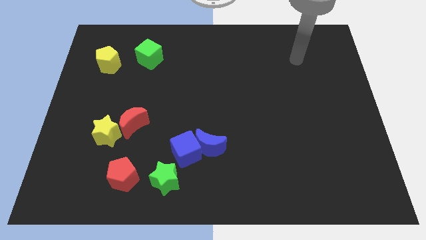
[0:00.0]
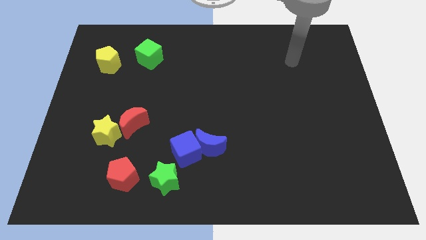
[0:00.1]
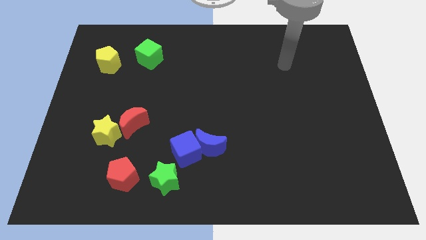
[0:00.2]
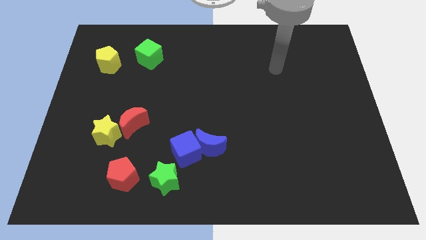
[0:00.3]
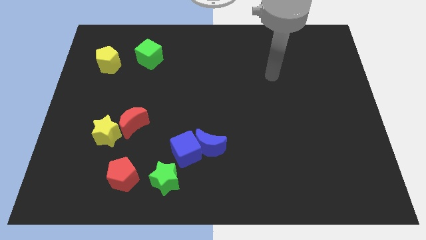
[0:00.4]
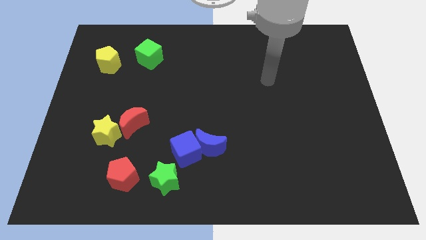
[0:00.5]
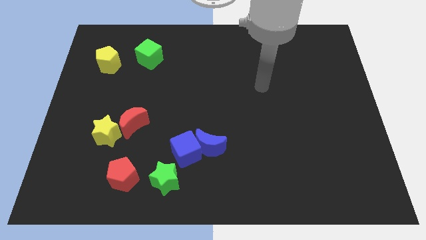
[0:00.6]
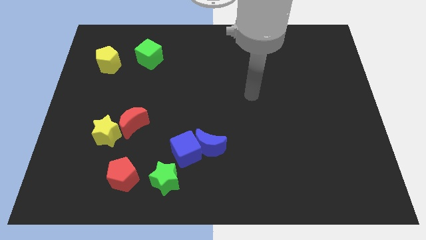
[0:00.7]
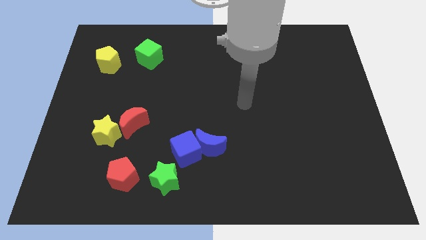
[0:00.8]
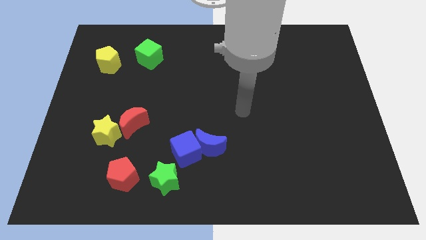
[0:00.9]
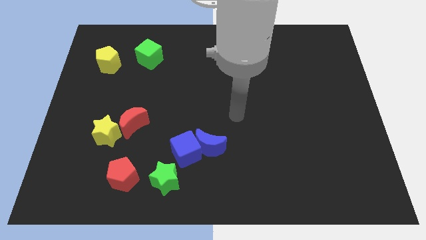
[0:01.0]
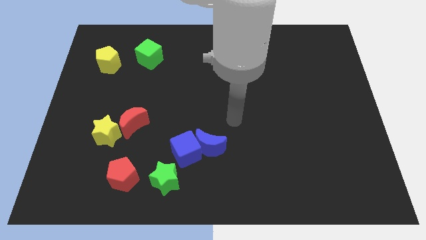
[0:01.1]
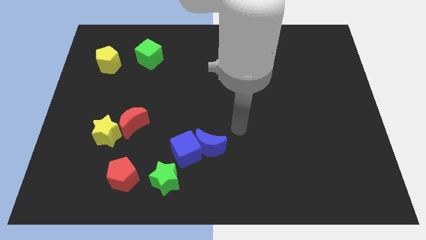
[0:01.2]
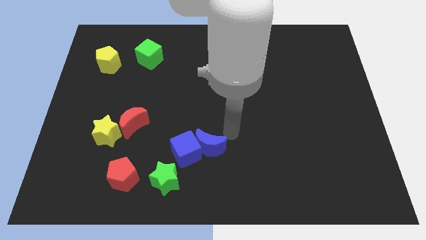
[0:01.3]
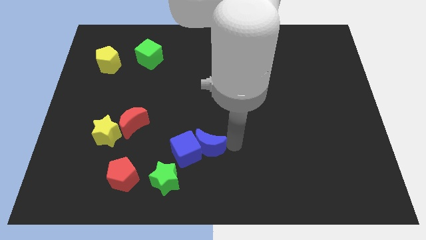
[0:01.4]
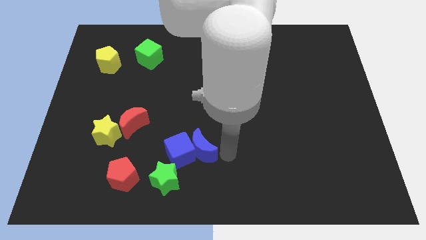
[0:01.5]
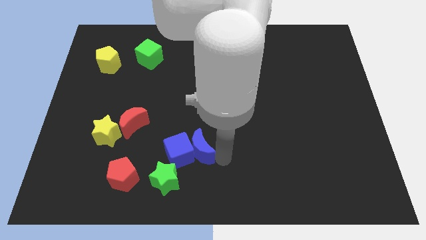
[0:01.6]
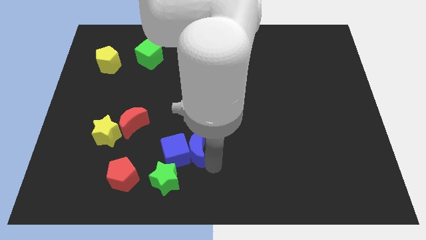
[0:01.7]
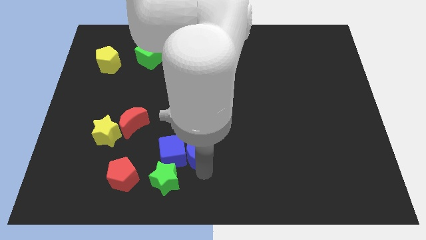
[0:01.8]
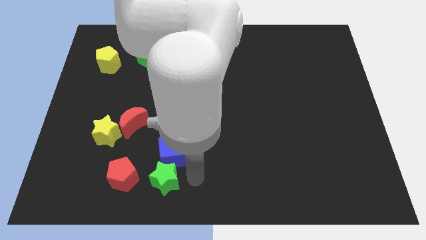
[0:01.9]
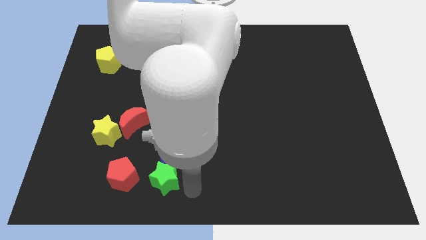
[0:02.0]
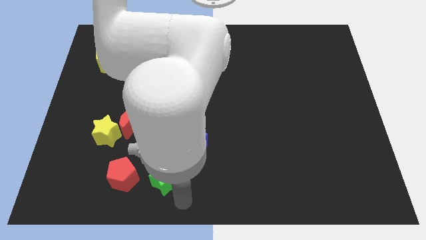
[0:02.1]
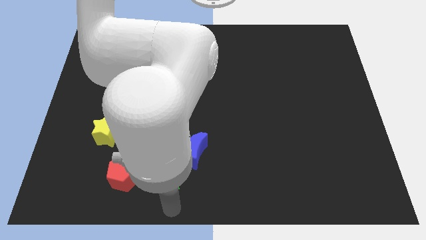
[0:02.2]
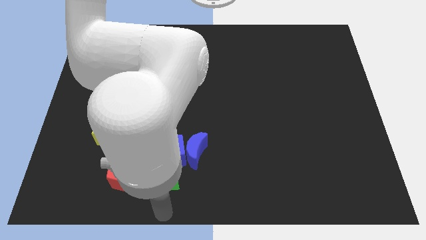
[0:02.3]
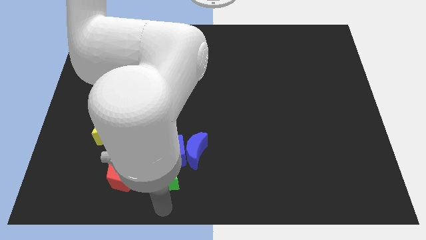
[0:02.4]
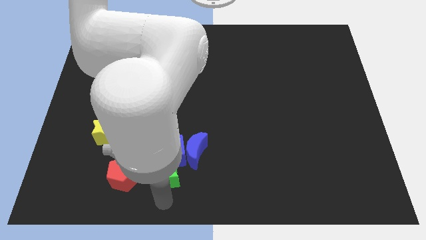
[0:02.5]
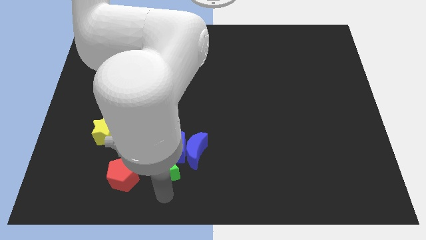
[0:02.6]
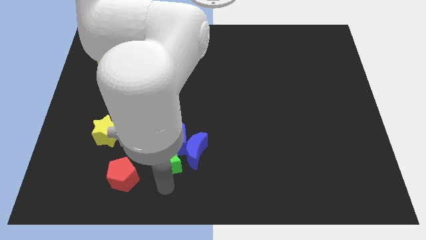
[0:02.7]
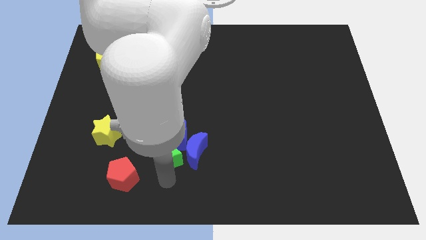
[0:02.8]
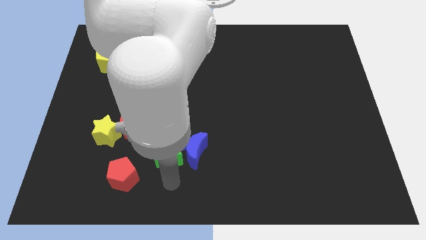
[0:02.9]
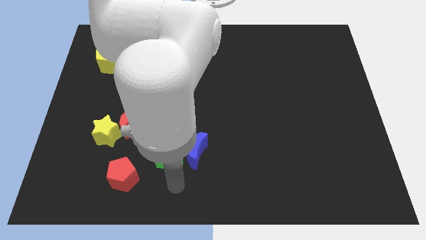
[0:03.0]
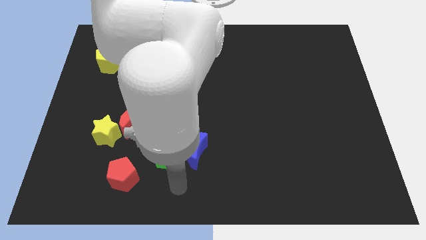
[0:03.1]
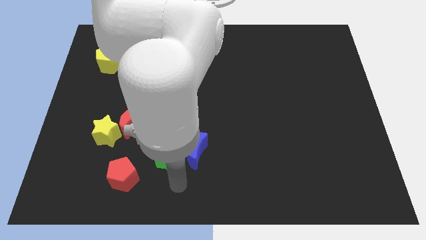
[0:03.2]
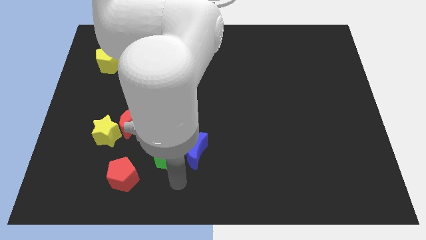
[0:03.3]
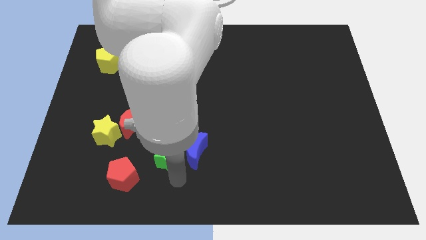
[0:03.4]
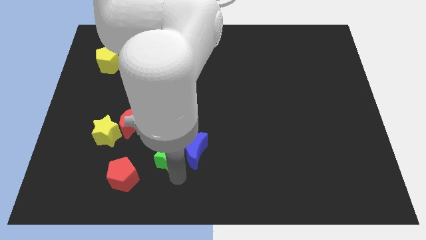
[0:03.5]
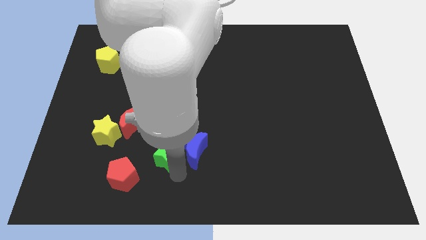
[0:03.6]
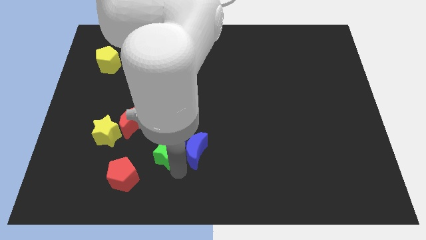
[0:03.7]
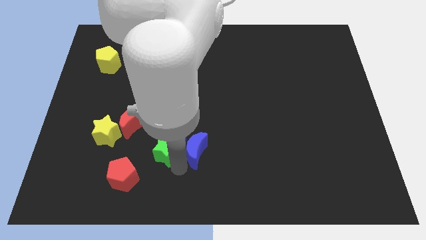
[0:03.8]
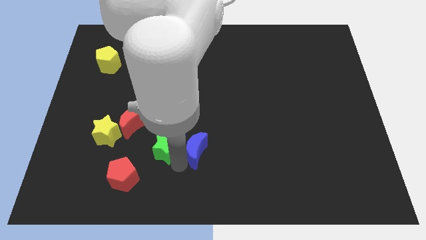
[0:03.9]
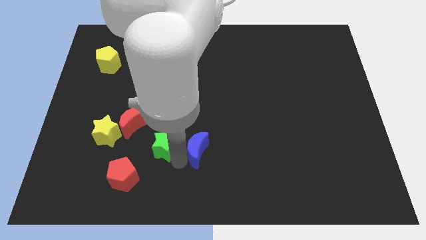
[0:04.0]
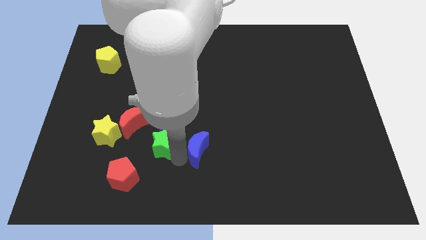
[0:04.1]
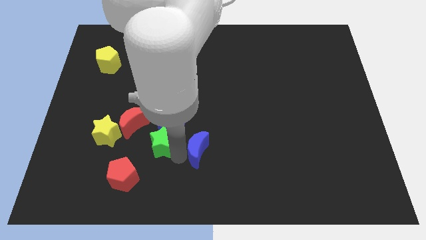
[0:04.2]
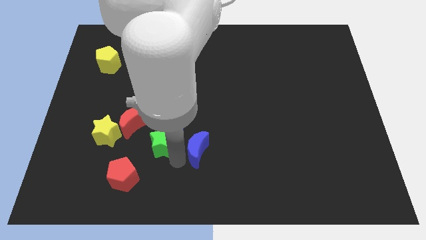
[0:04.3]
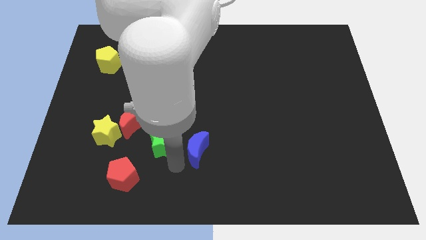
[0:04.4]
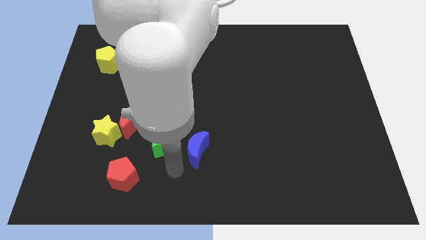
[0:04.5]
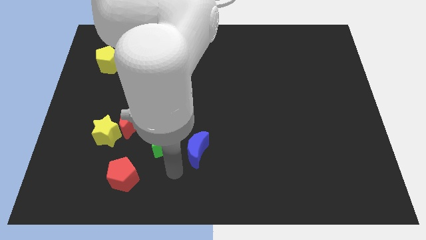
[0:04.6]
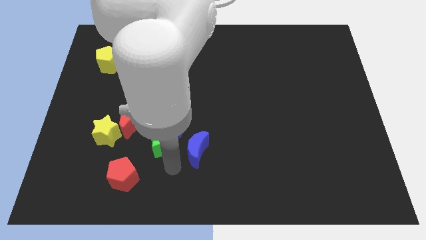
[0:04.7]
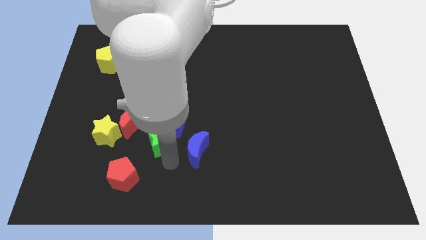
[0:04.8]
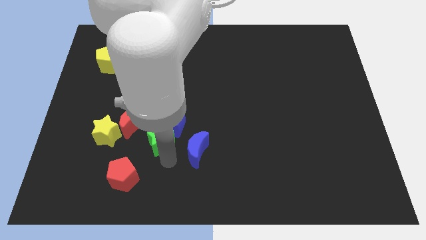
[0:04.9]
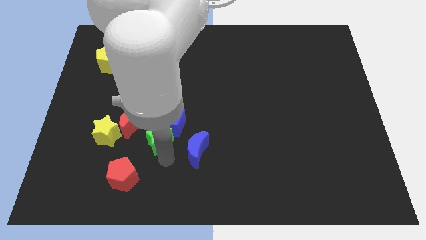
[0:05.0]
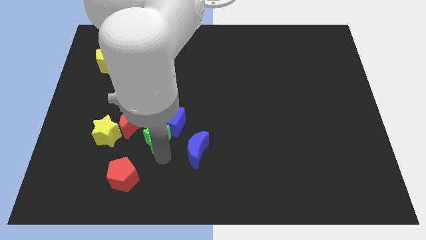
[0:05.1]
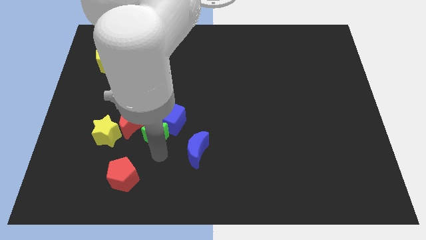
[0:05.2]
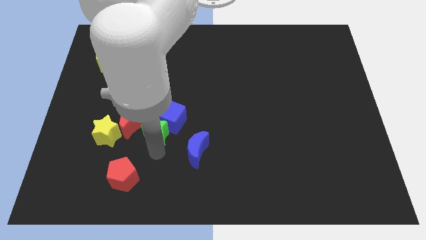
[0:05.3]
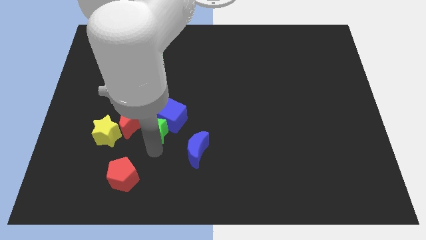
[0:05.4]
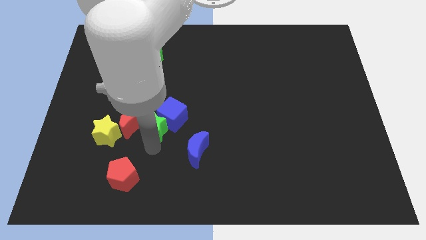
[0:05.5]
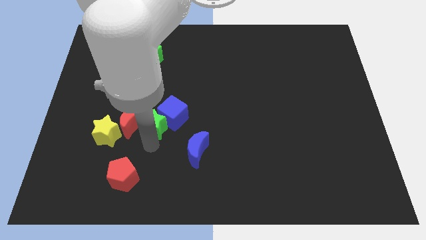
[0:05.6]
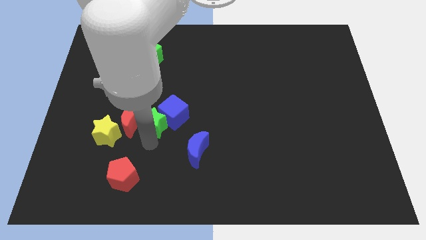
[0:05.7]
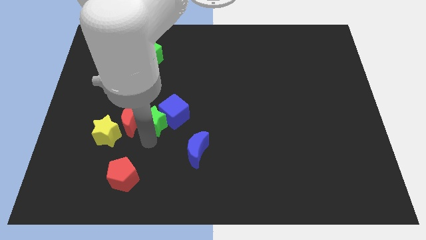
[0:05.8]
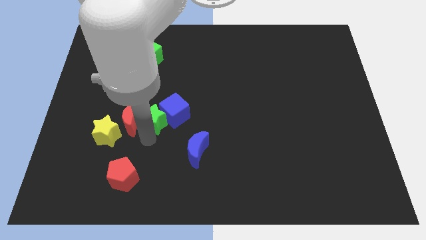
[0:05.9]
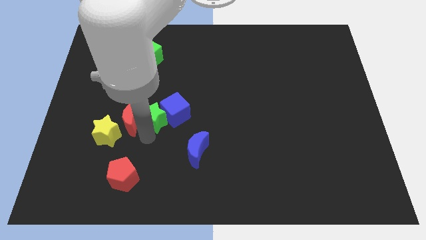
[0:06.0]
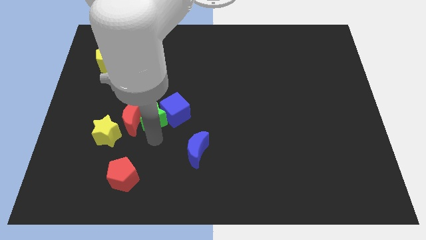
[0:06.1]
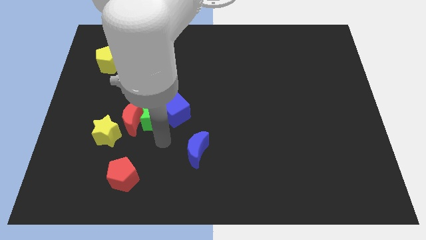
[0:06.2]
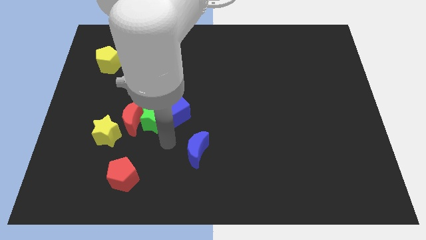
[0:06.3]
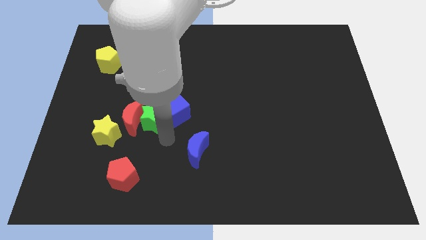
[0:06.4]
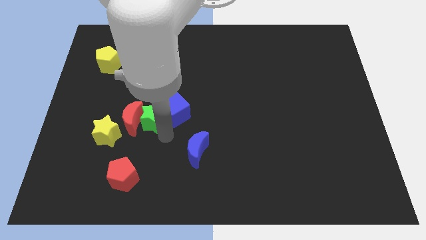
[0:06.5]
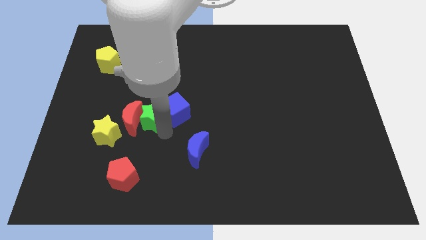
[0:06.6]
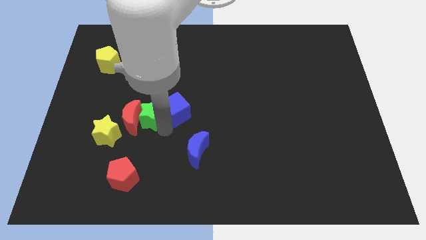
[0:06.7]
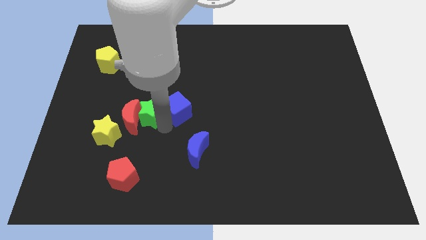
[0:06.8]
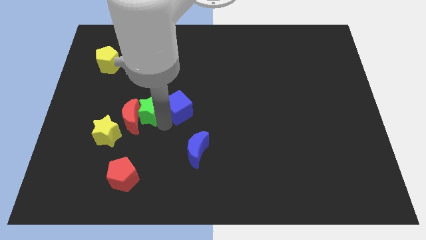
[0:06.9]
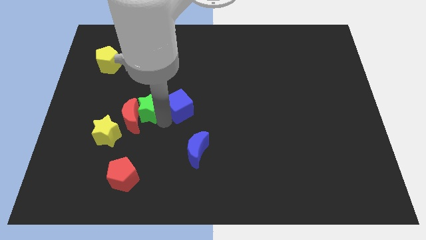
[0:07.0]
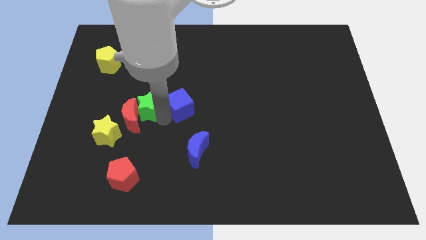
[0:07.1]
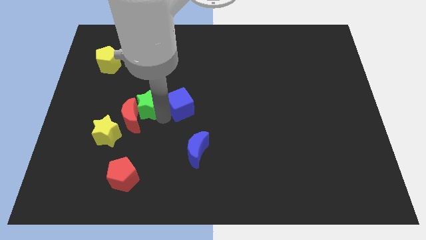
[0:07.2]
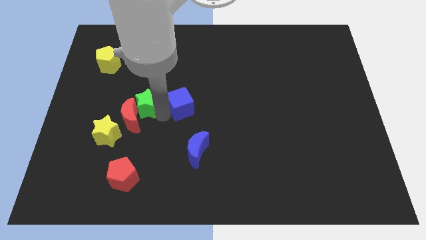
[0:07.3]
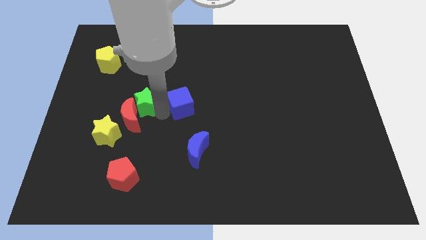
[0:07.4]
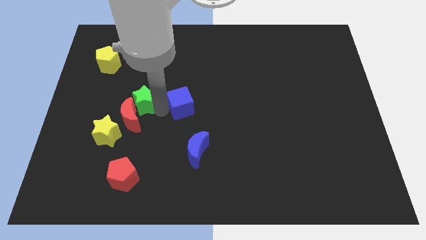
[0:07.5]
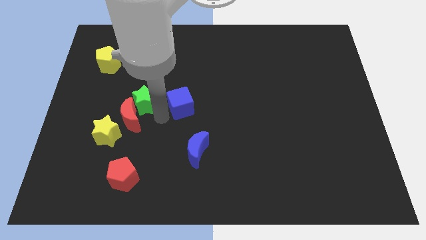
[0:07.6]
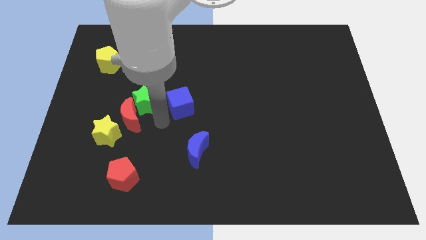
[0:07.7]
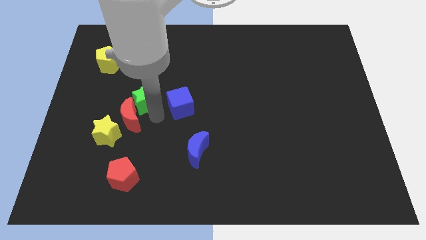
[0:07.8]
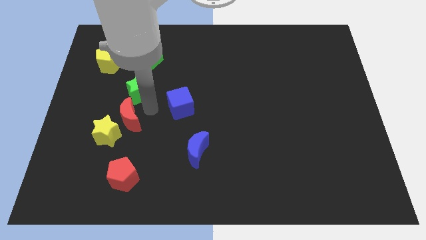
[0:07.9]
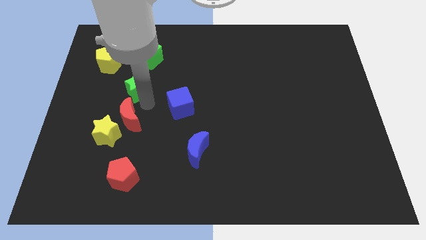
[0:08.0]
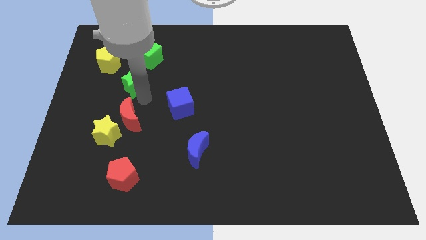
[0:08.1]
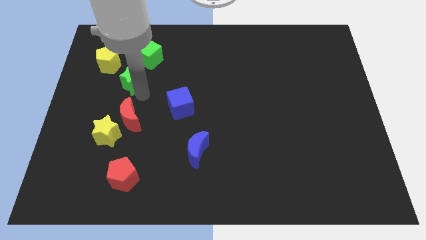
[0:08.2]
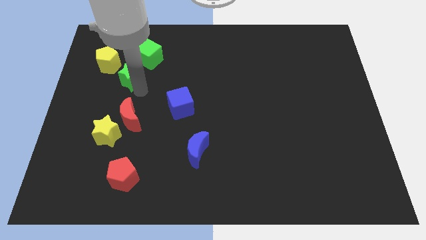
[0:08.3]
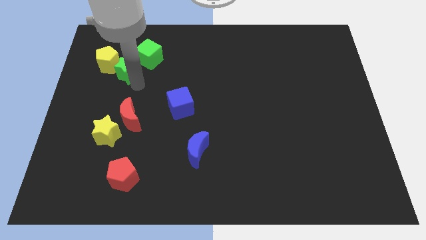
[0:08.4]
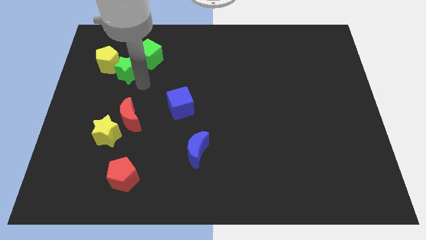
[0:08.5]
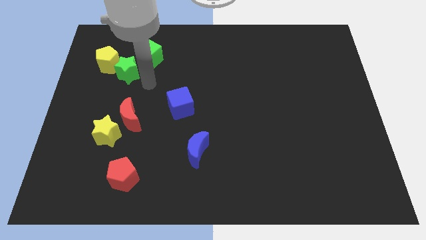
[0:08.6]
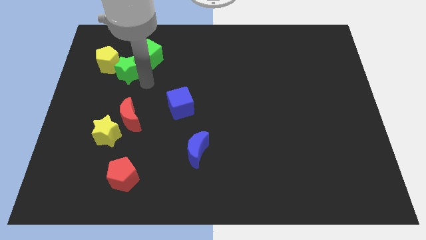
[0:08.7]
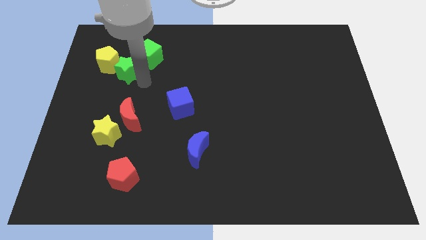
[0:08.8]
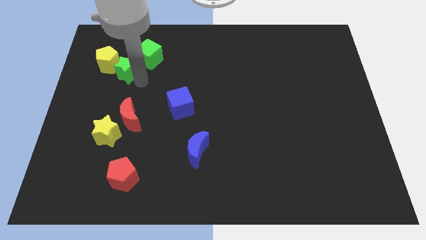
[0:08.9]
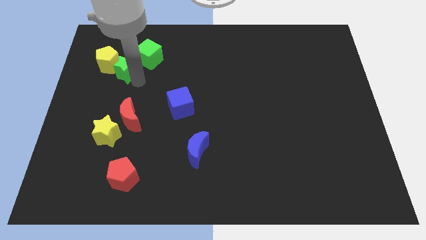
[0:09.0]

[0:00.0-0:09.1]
move the green star close to the yellow pentagon
